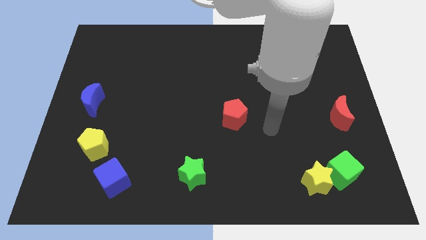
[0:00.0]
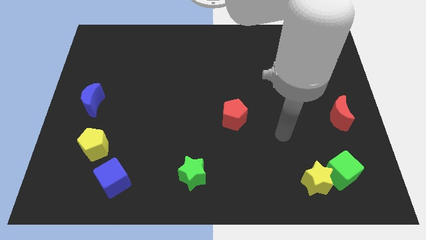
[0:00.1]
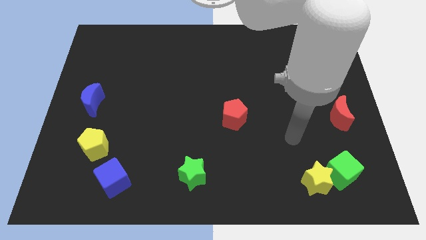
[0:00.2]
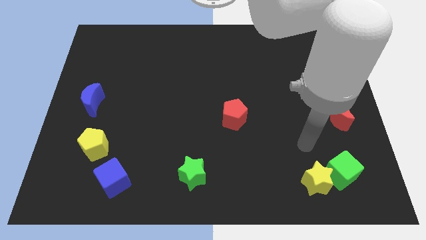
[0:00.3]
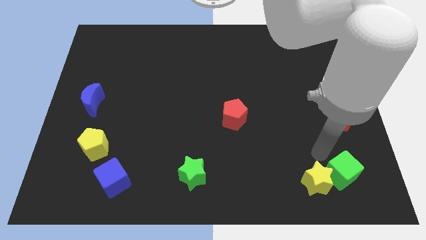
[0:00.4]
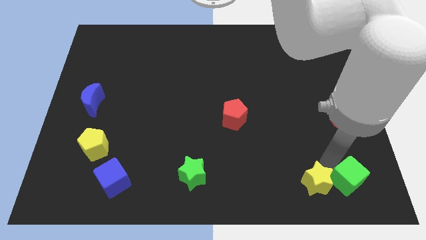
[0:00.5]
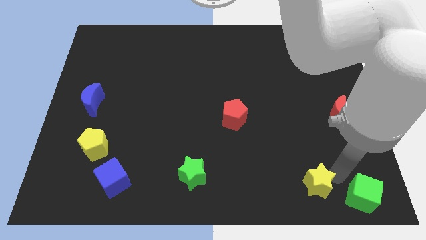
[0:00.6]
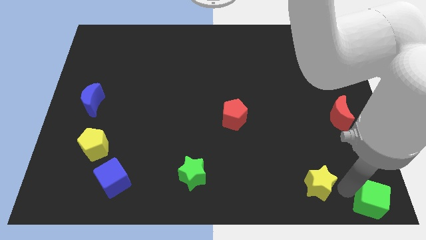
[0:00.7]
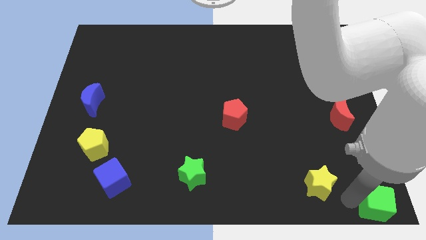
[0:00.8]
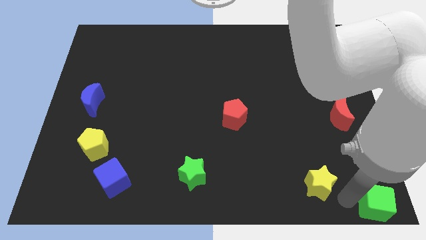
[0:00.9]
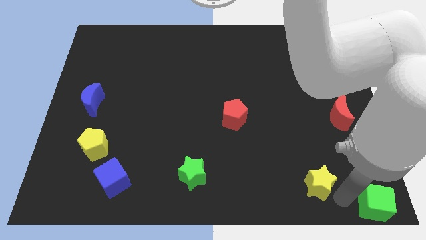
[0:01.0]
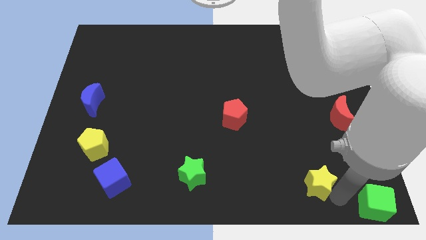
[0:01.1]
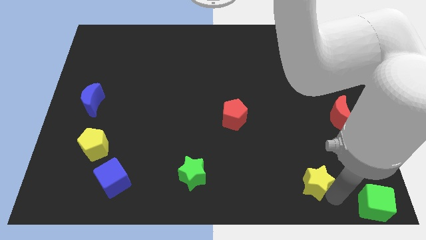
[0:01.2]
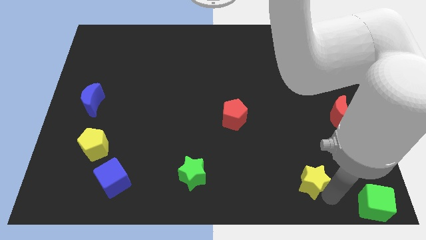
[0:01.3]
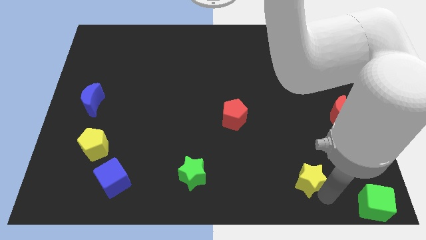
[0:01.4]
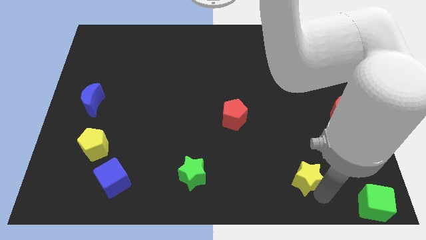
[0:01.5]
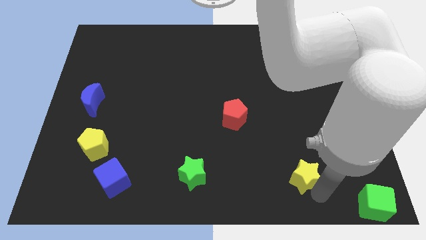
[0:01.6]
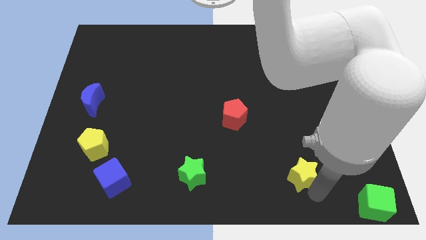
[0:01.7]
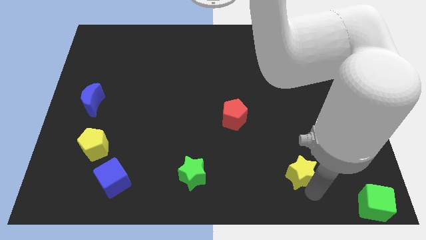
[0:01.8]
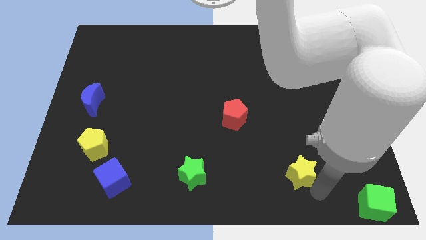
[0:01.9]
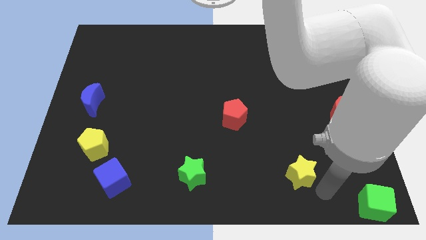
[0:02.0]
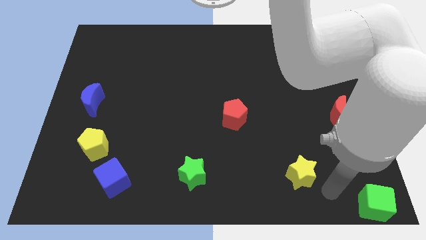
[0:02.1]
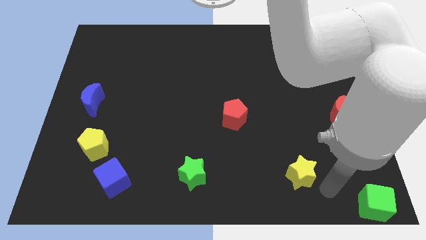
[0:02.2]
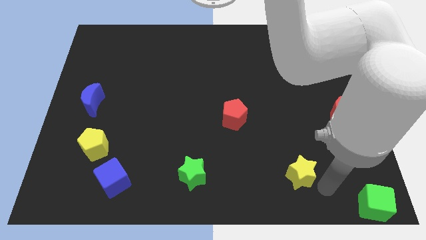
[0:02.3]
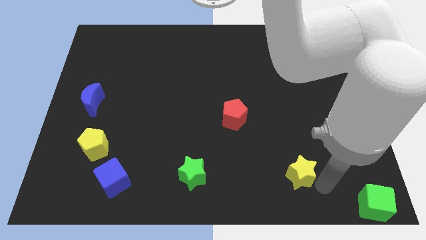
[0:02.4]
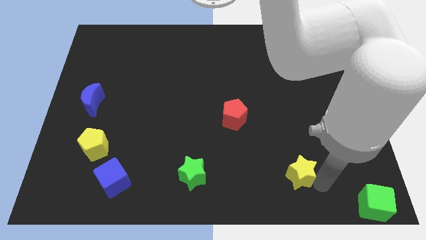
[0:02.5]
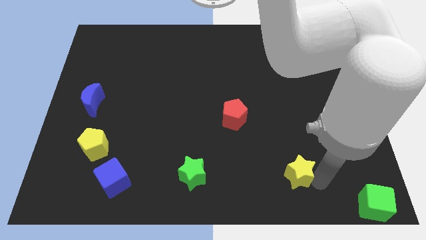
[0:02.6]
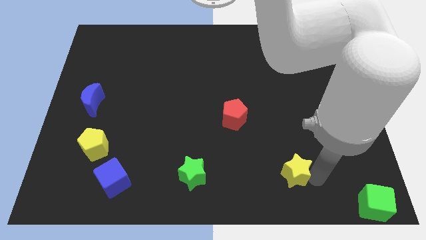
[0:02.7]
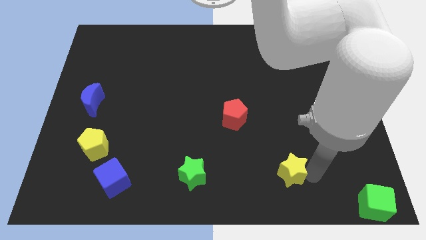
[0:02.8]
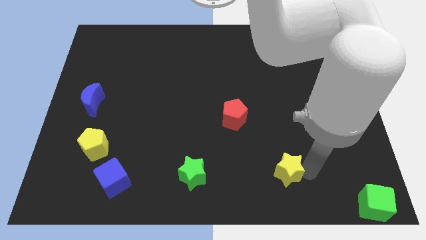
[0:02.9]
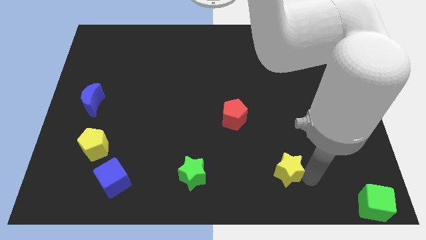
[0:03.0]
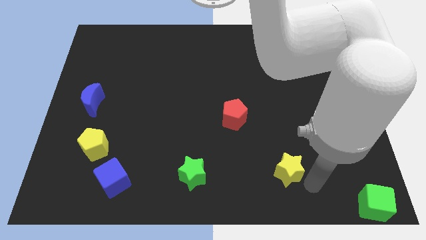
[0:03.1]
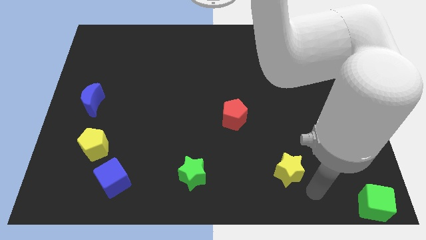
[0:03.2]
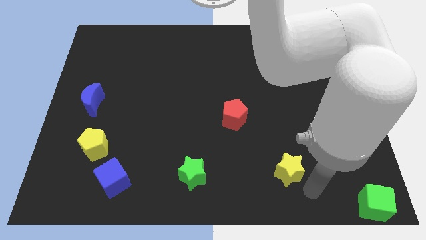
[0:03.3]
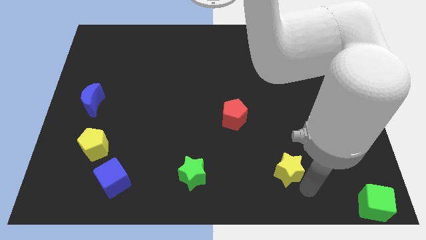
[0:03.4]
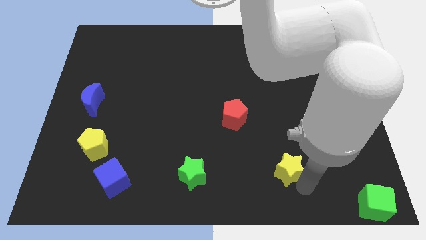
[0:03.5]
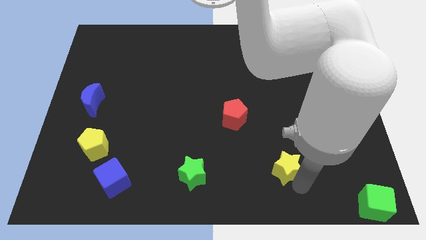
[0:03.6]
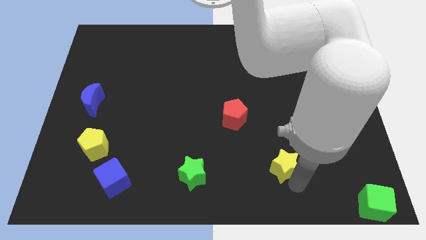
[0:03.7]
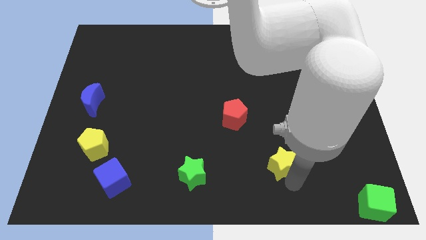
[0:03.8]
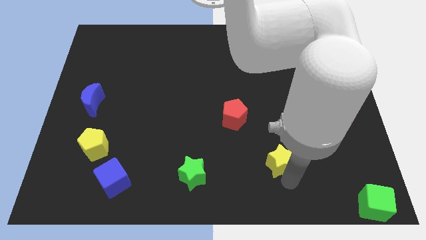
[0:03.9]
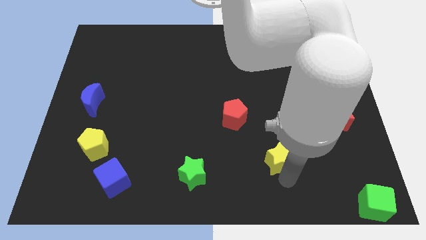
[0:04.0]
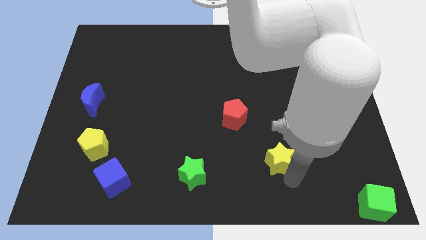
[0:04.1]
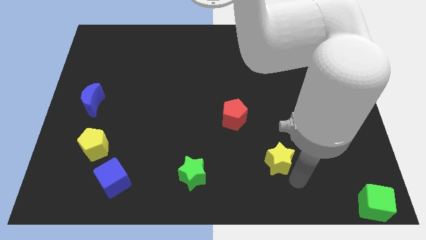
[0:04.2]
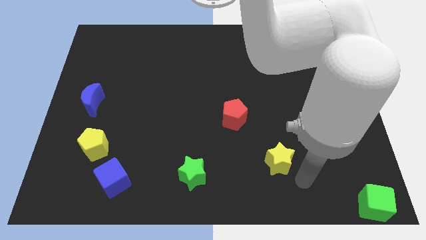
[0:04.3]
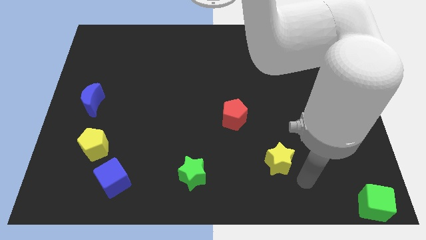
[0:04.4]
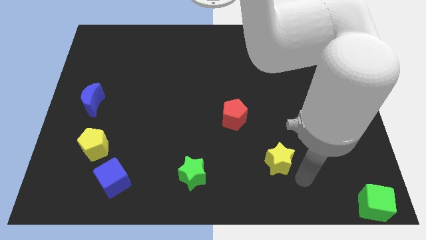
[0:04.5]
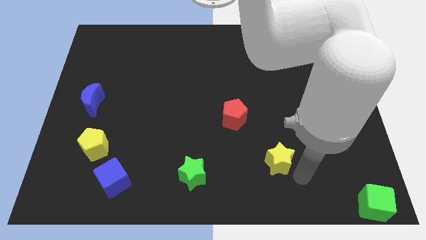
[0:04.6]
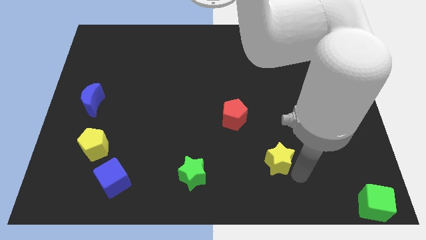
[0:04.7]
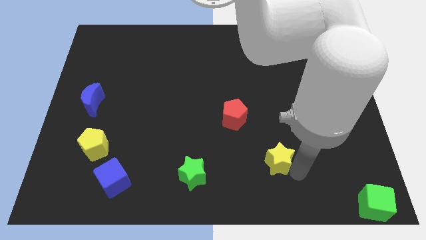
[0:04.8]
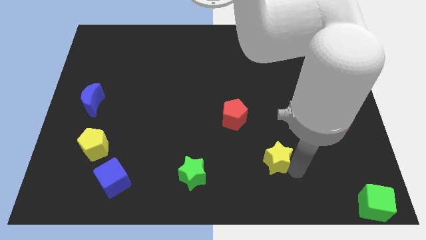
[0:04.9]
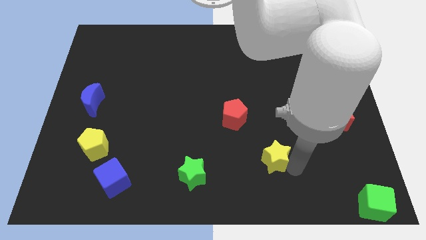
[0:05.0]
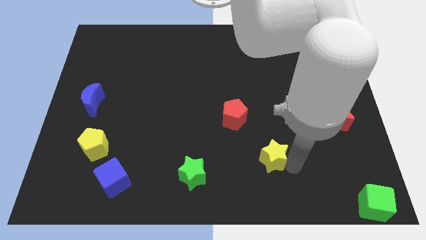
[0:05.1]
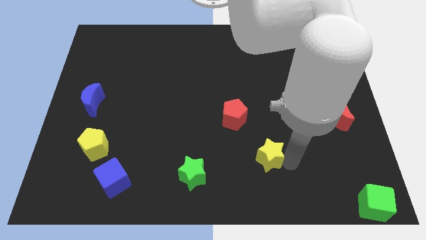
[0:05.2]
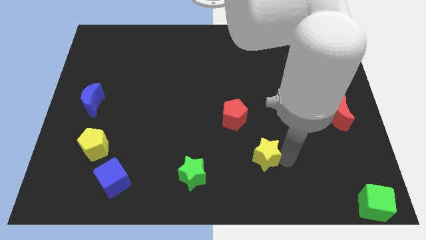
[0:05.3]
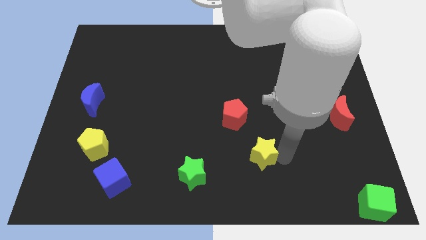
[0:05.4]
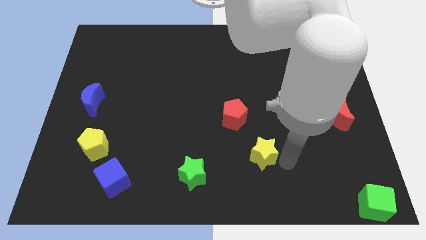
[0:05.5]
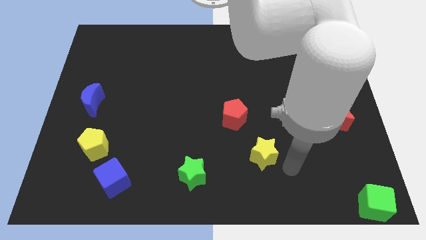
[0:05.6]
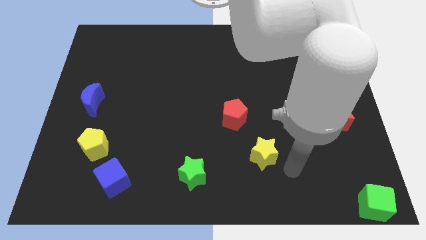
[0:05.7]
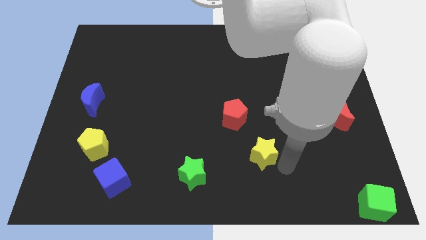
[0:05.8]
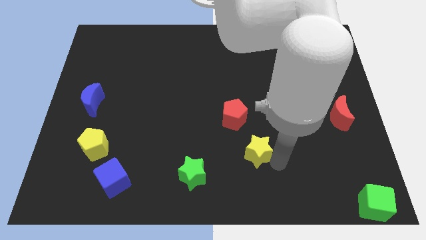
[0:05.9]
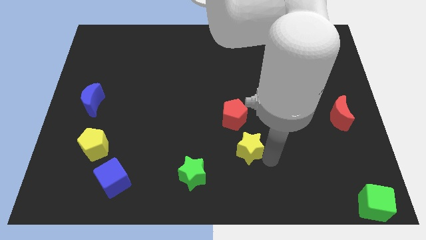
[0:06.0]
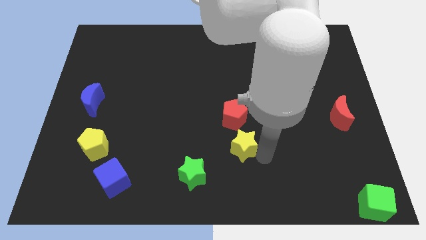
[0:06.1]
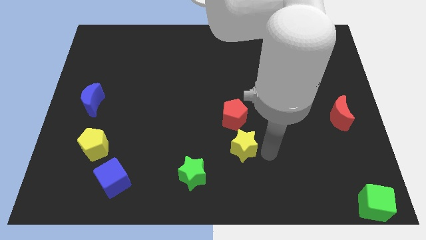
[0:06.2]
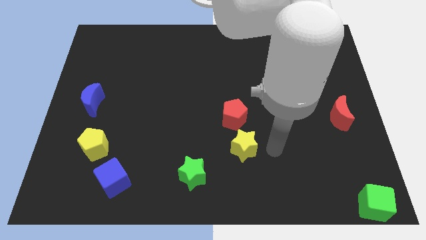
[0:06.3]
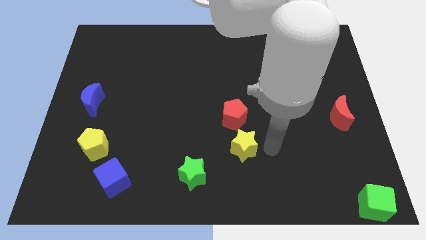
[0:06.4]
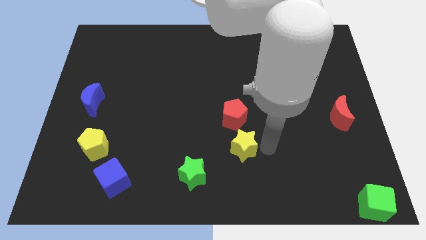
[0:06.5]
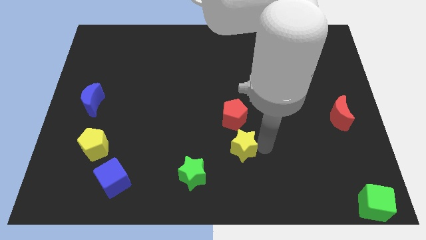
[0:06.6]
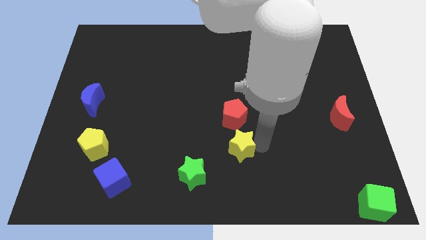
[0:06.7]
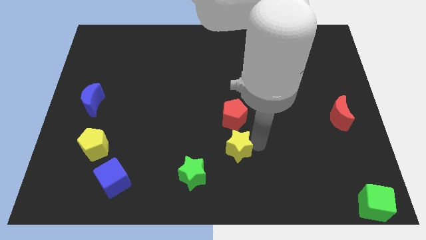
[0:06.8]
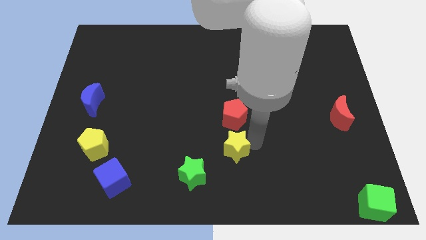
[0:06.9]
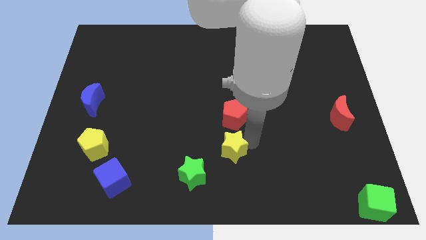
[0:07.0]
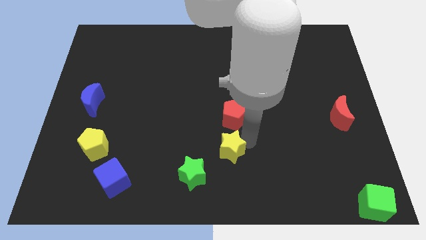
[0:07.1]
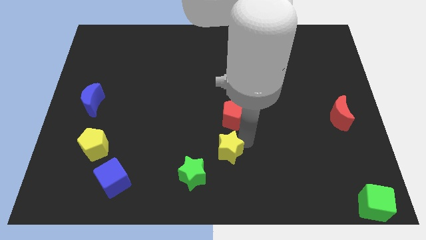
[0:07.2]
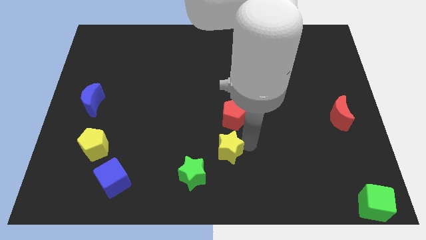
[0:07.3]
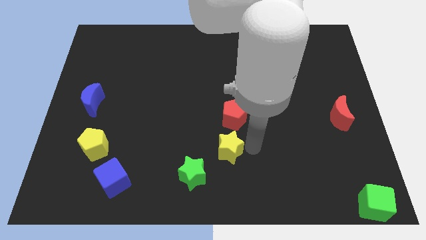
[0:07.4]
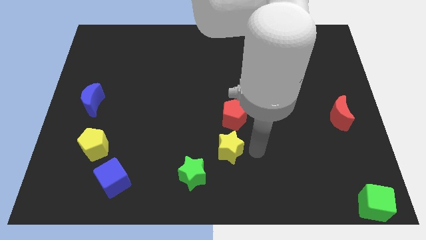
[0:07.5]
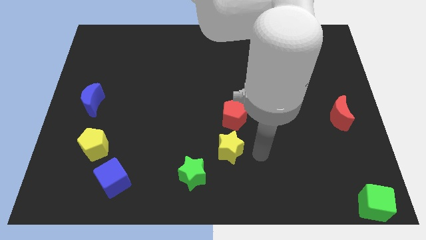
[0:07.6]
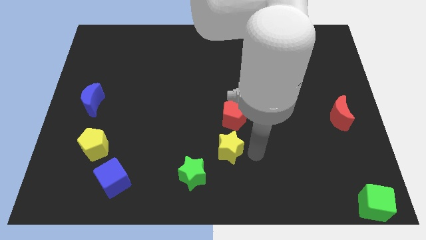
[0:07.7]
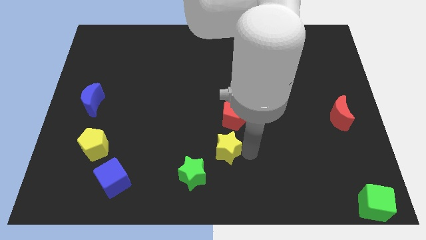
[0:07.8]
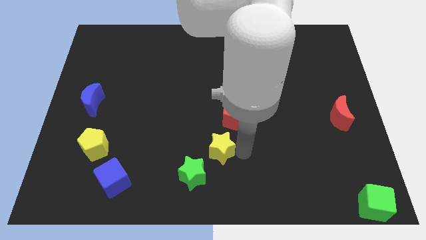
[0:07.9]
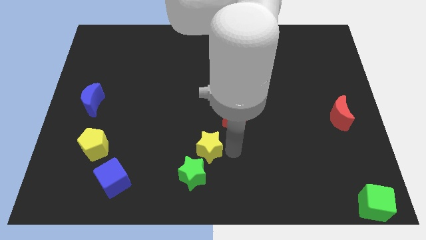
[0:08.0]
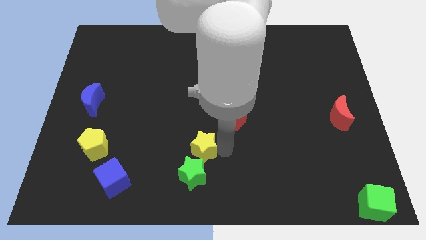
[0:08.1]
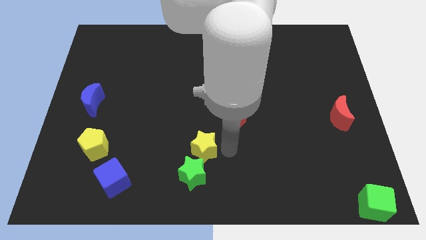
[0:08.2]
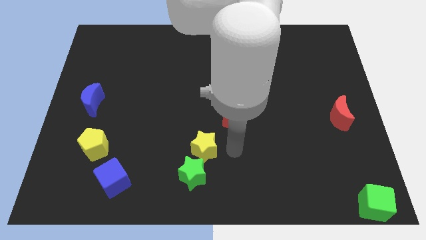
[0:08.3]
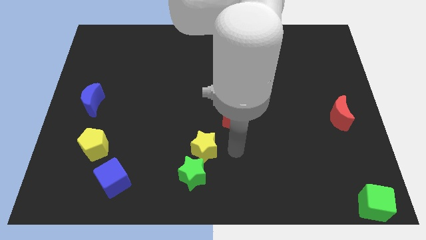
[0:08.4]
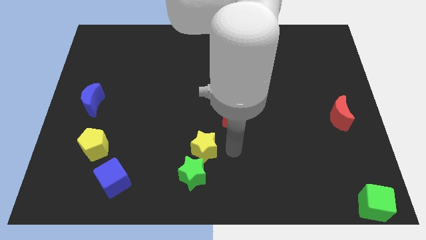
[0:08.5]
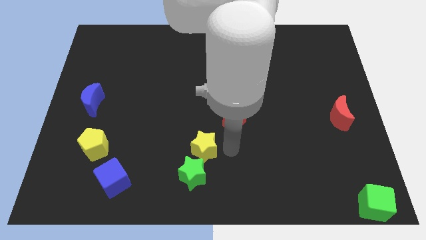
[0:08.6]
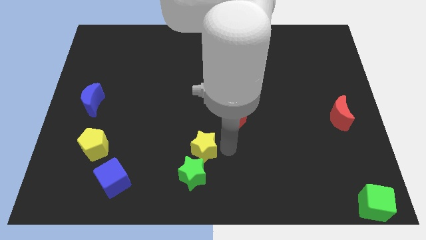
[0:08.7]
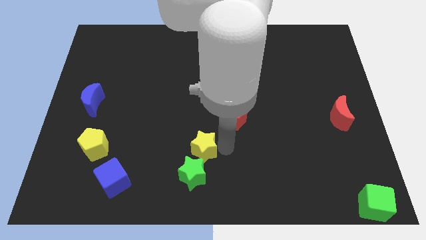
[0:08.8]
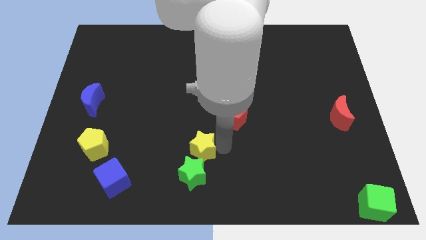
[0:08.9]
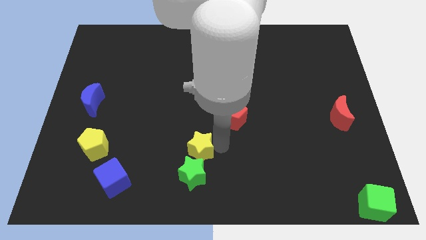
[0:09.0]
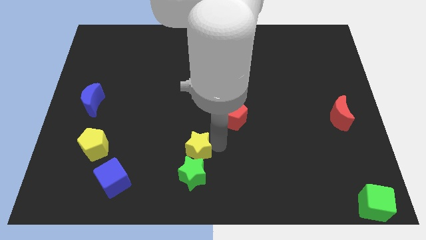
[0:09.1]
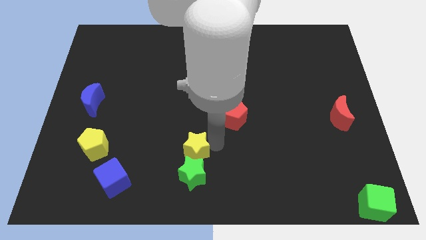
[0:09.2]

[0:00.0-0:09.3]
move the yellow star to the top left of the green star
